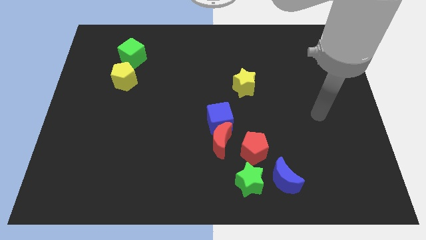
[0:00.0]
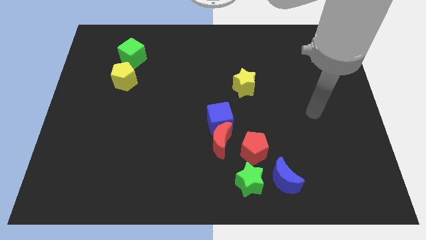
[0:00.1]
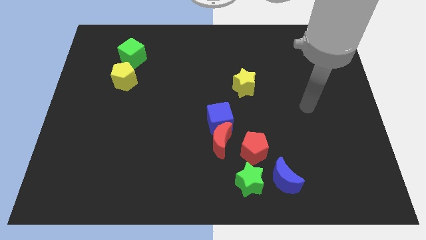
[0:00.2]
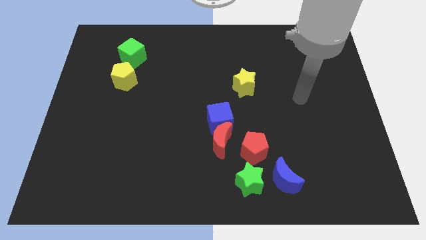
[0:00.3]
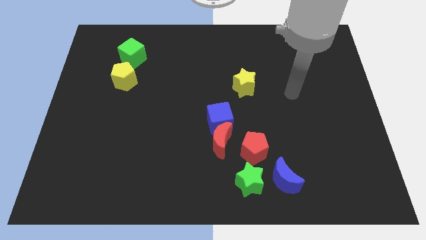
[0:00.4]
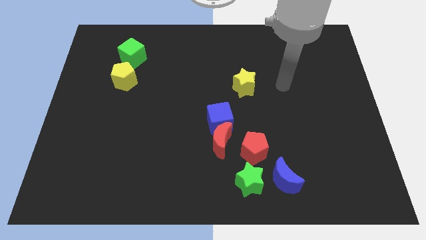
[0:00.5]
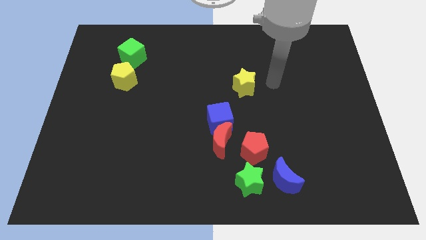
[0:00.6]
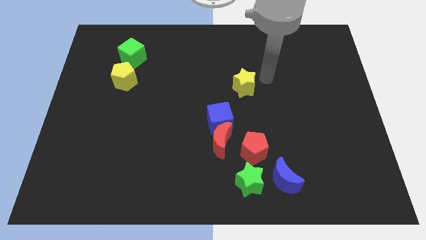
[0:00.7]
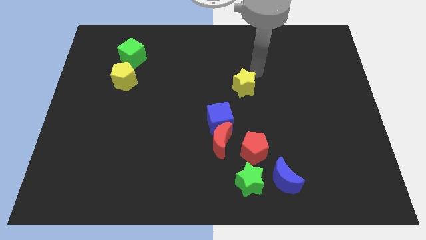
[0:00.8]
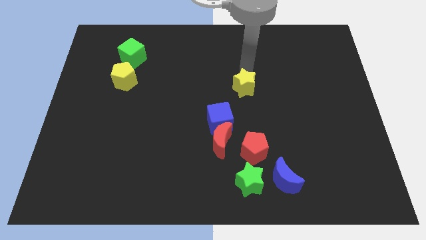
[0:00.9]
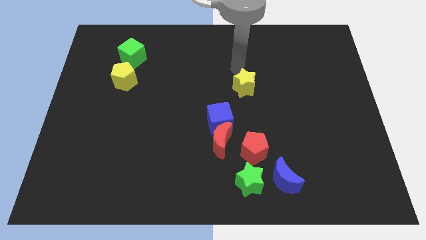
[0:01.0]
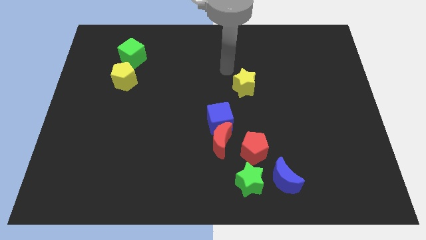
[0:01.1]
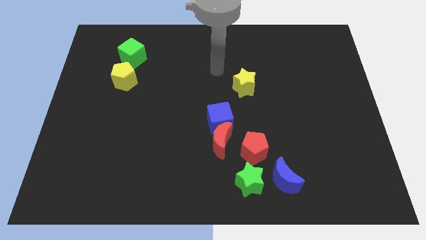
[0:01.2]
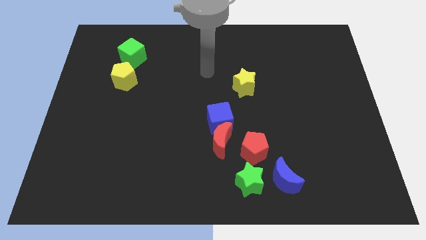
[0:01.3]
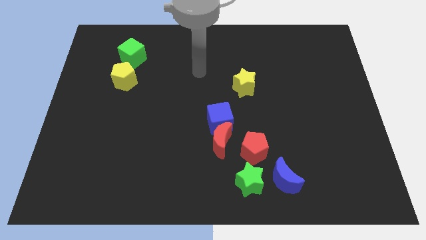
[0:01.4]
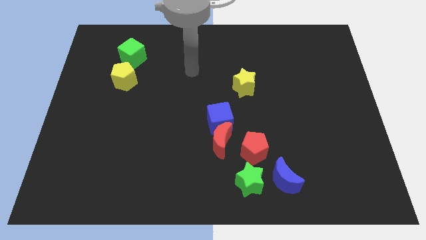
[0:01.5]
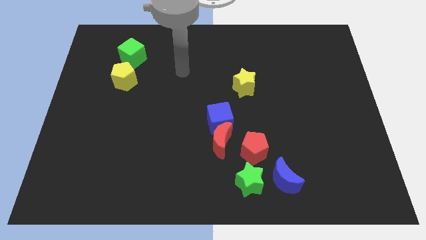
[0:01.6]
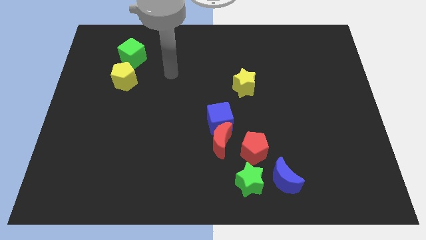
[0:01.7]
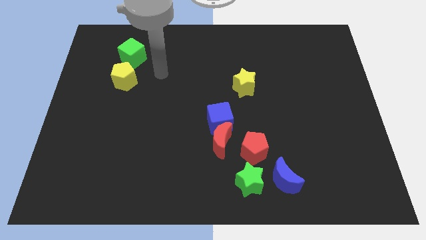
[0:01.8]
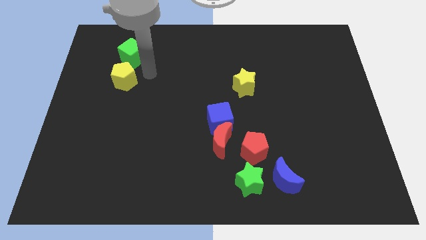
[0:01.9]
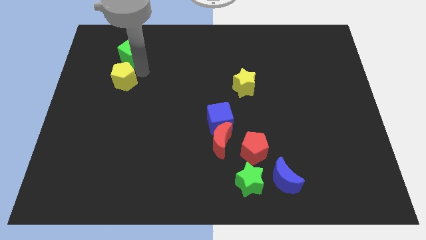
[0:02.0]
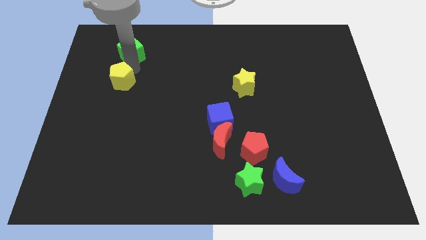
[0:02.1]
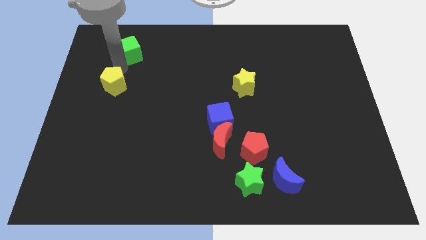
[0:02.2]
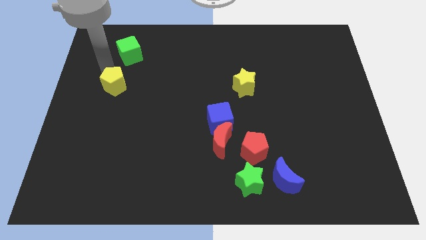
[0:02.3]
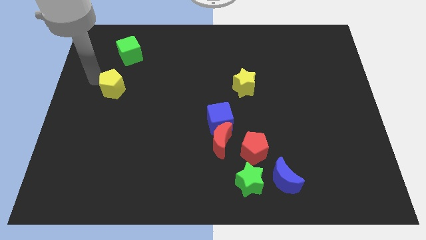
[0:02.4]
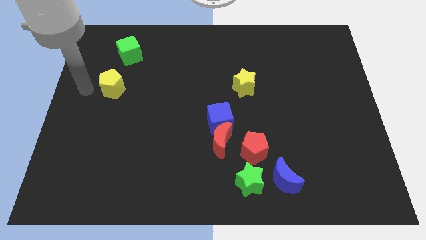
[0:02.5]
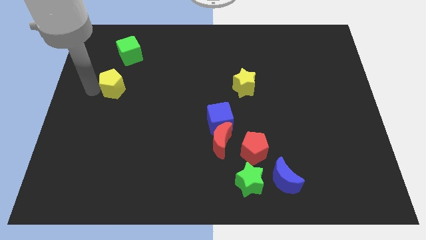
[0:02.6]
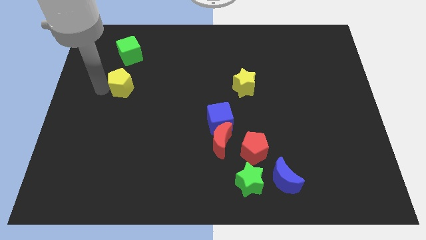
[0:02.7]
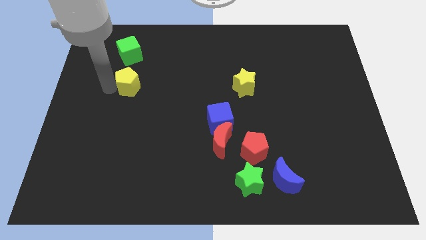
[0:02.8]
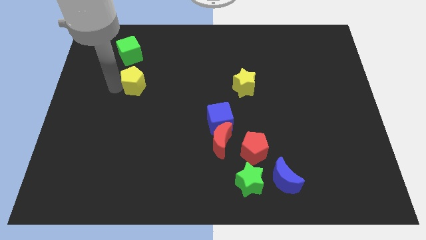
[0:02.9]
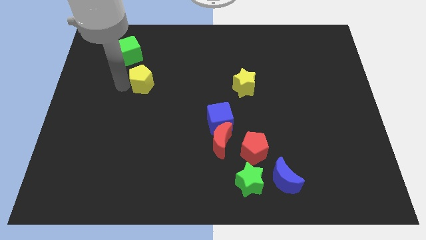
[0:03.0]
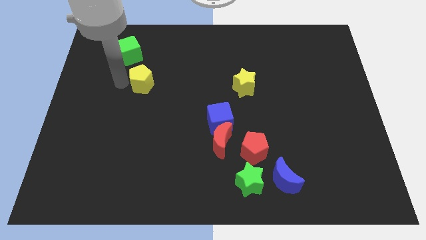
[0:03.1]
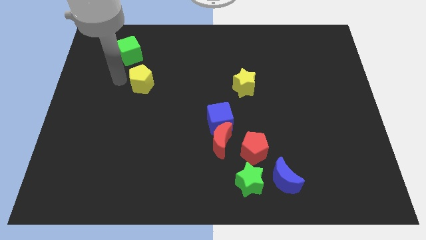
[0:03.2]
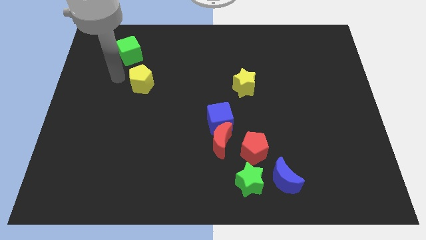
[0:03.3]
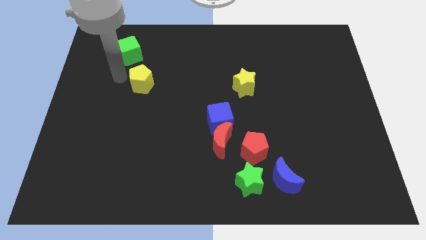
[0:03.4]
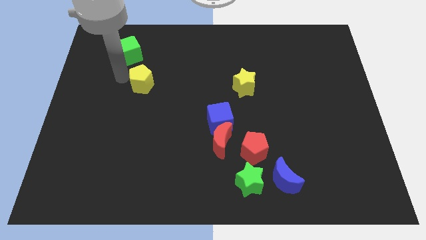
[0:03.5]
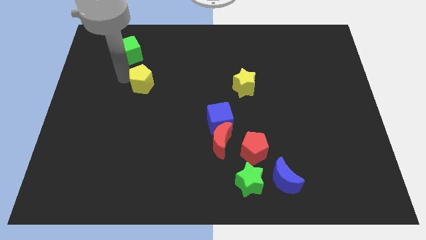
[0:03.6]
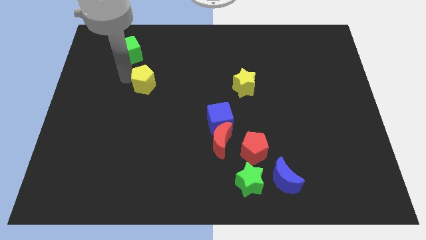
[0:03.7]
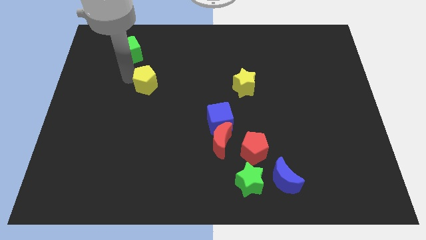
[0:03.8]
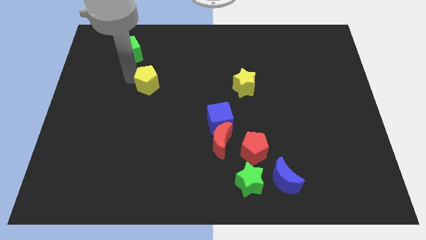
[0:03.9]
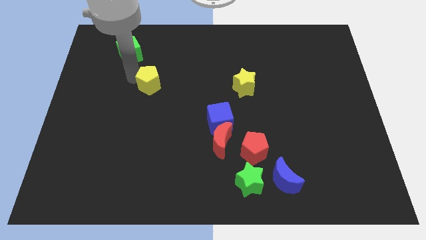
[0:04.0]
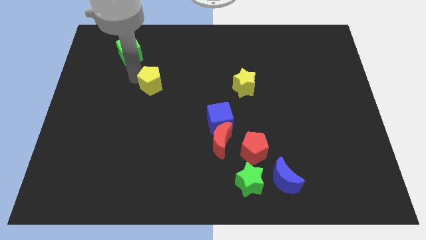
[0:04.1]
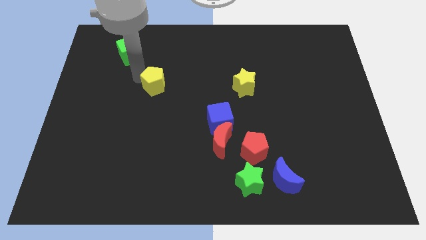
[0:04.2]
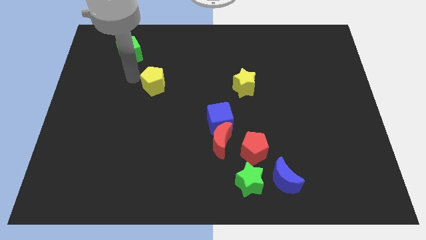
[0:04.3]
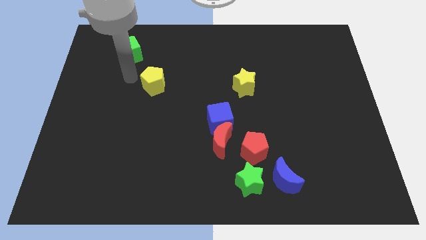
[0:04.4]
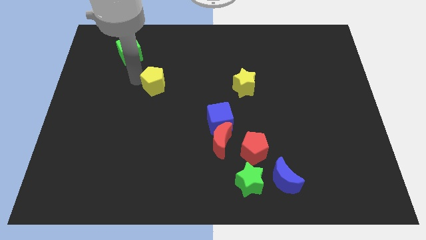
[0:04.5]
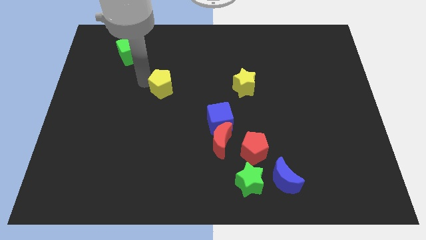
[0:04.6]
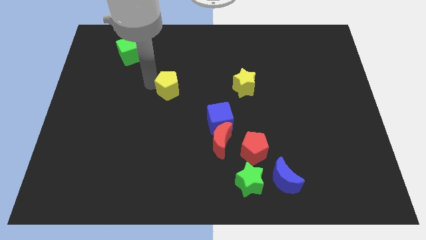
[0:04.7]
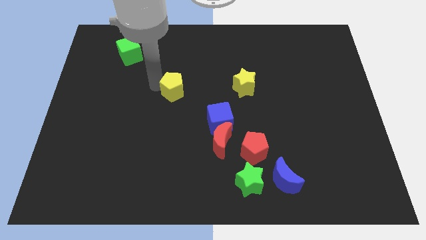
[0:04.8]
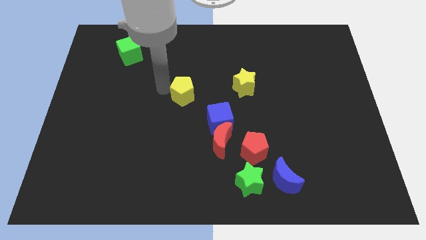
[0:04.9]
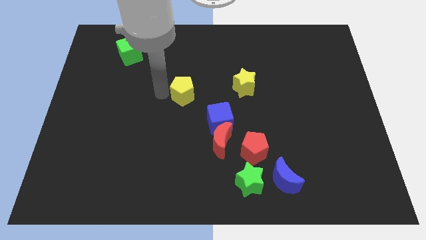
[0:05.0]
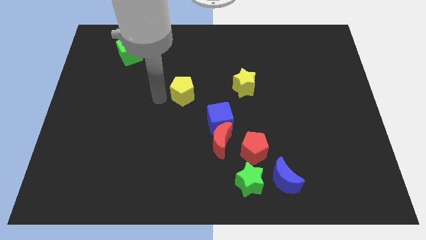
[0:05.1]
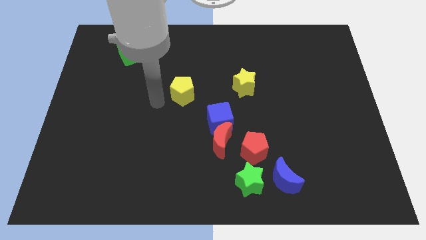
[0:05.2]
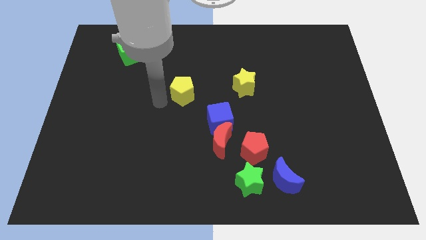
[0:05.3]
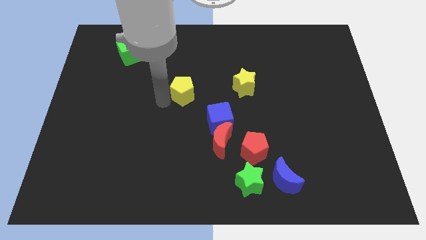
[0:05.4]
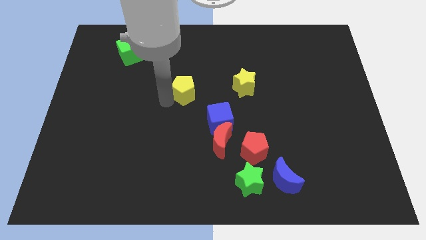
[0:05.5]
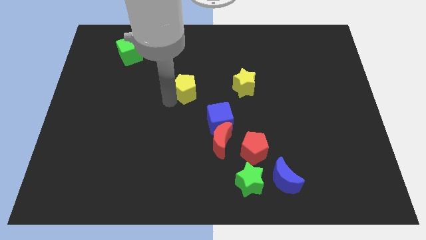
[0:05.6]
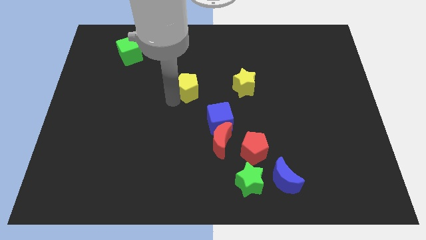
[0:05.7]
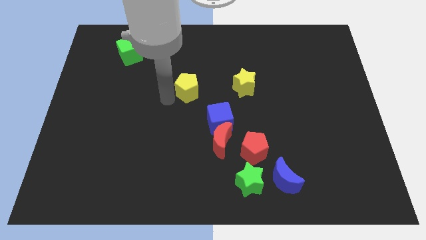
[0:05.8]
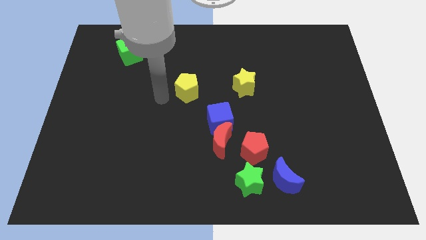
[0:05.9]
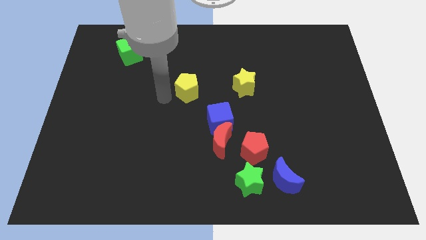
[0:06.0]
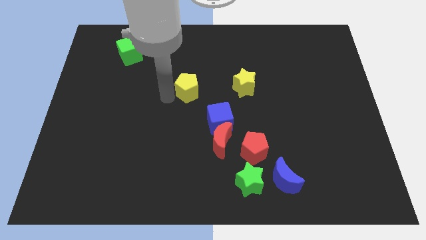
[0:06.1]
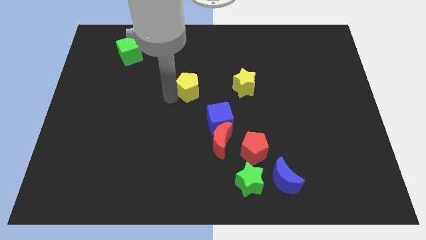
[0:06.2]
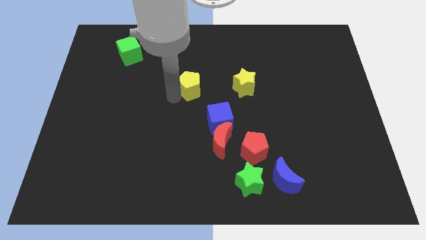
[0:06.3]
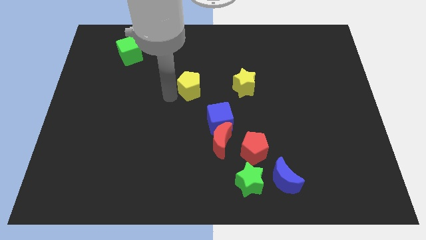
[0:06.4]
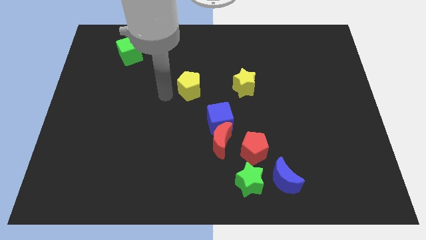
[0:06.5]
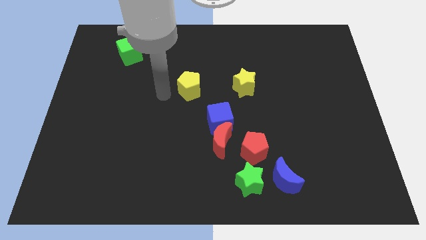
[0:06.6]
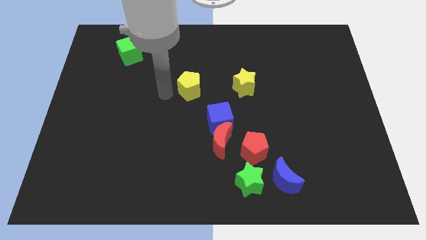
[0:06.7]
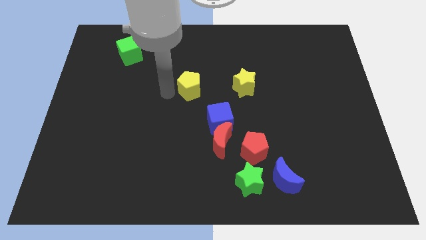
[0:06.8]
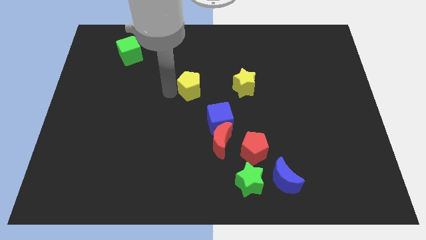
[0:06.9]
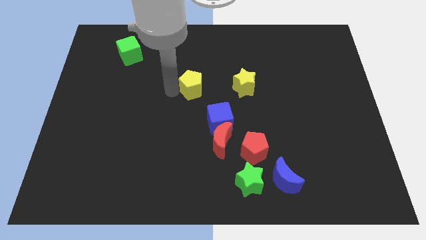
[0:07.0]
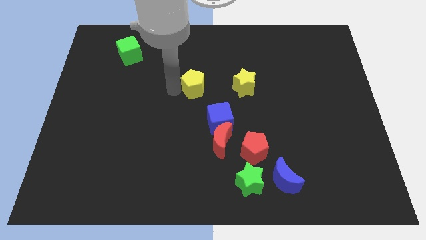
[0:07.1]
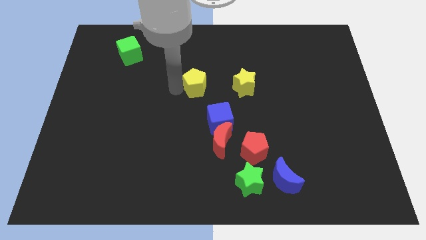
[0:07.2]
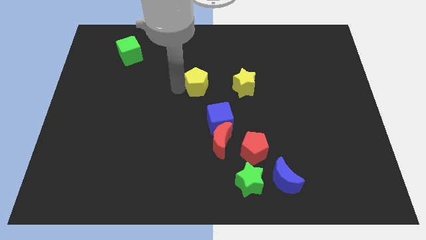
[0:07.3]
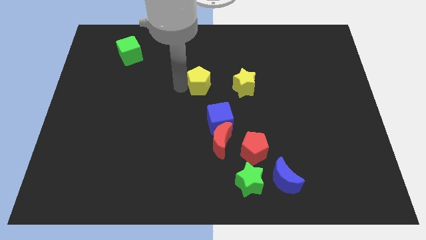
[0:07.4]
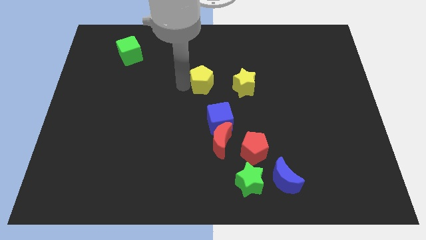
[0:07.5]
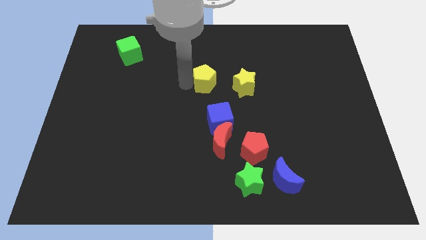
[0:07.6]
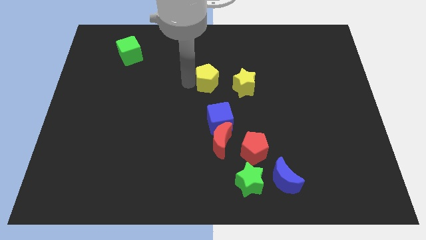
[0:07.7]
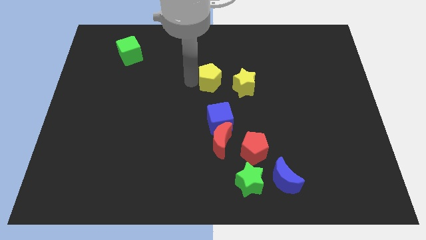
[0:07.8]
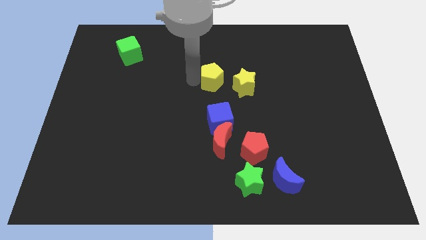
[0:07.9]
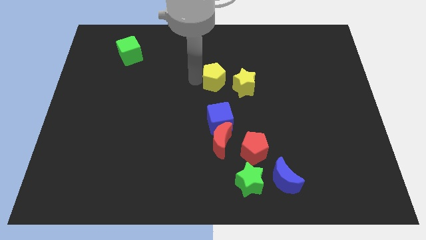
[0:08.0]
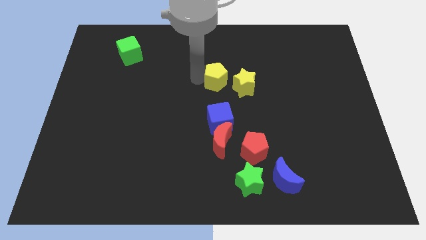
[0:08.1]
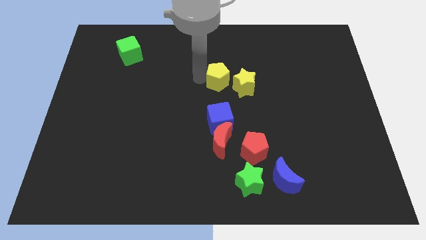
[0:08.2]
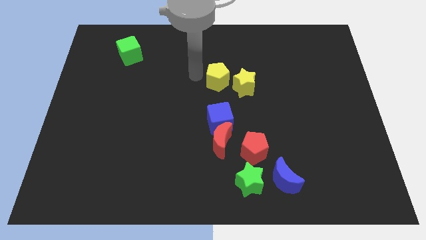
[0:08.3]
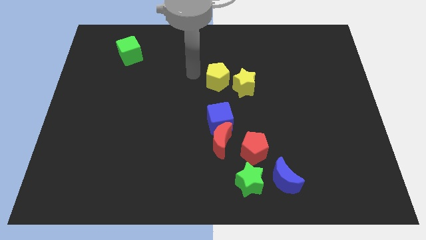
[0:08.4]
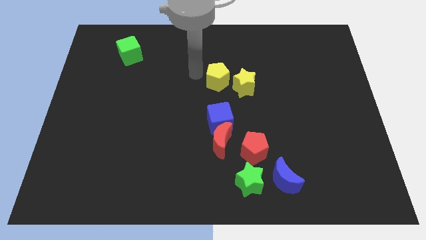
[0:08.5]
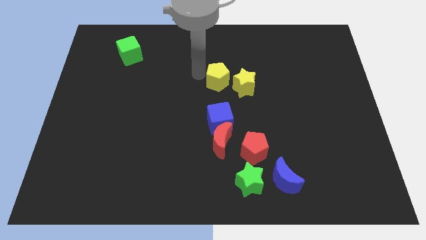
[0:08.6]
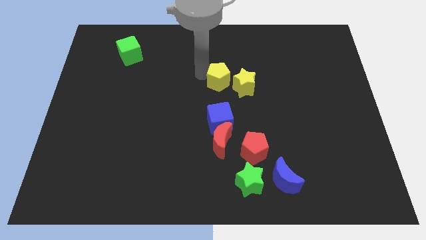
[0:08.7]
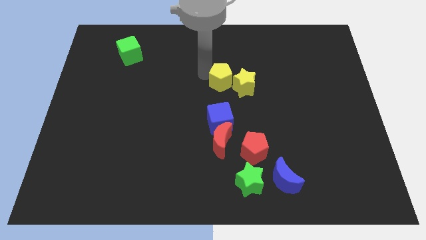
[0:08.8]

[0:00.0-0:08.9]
move the yellow pentagon to the yellow star
